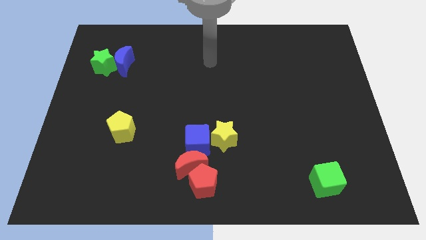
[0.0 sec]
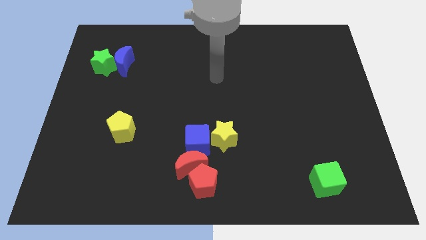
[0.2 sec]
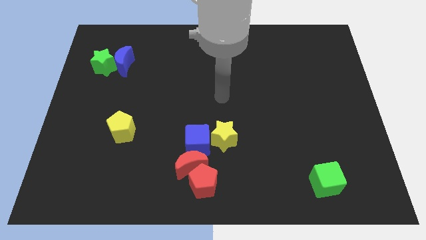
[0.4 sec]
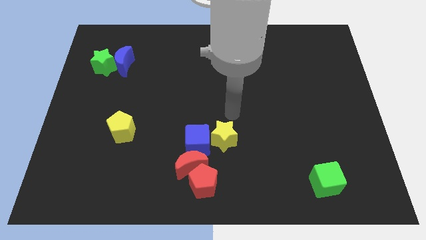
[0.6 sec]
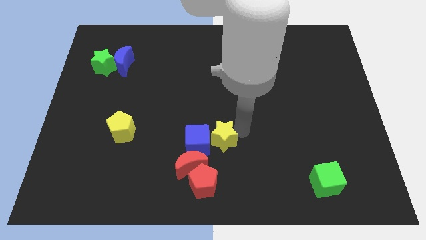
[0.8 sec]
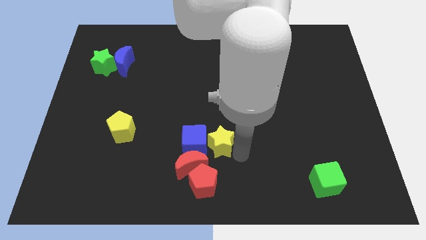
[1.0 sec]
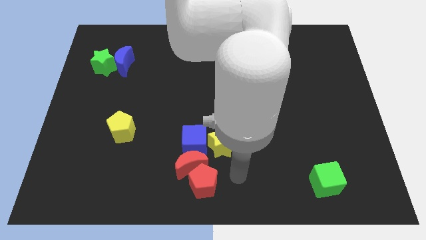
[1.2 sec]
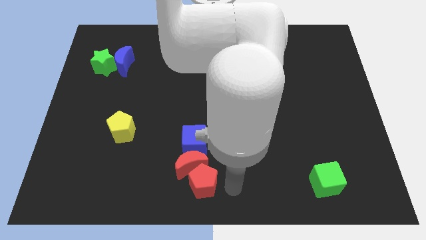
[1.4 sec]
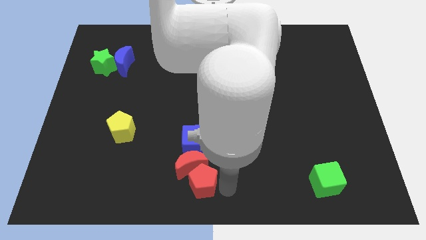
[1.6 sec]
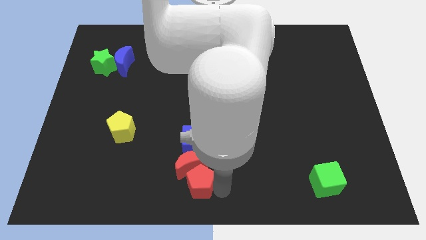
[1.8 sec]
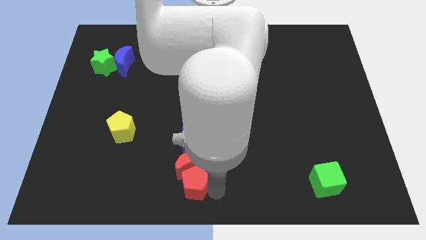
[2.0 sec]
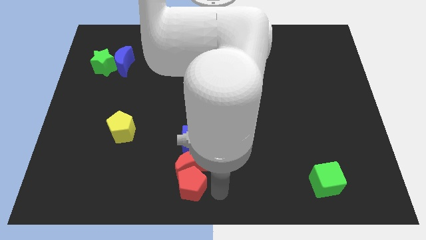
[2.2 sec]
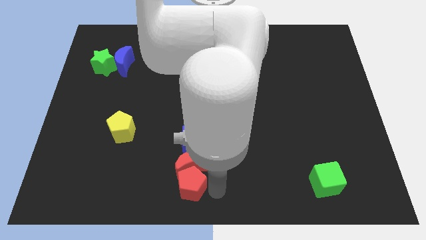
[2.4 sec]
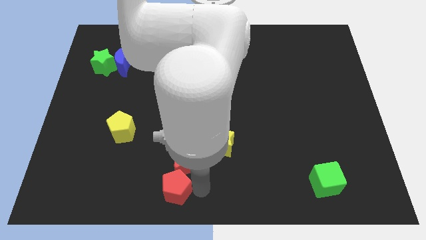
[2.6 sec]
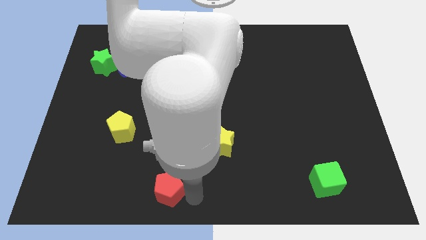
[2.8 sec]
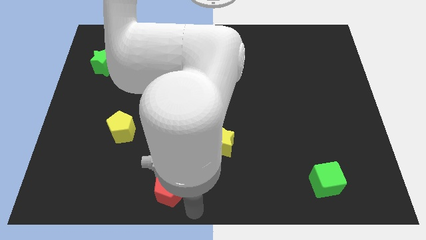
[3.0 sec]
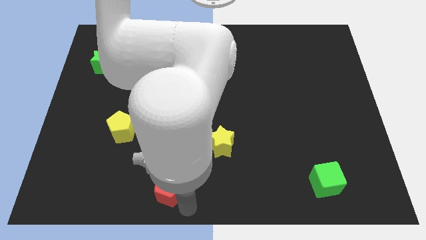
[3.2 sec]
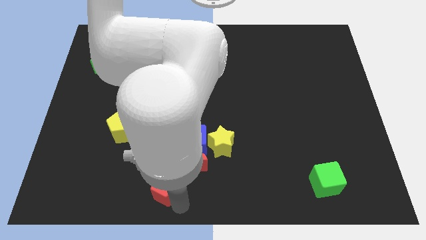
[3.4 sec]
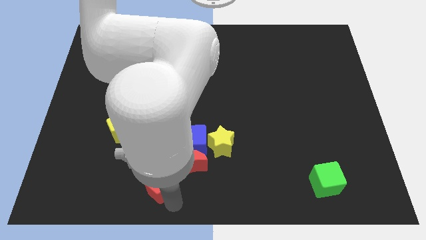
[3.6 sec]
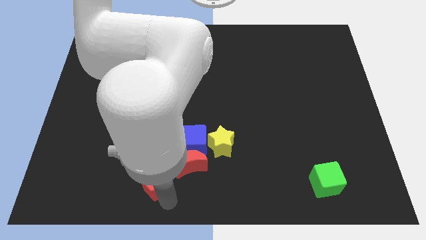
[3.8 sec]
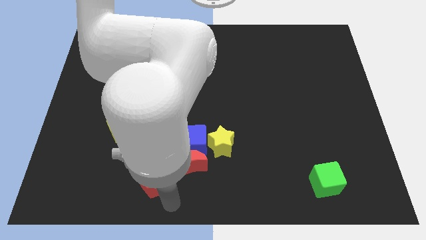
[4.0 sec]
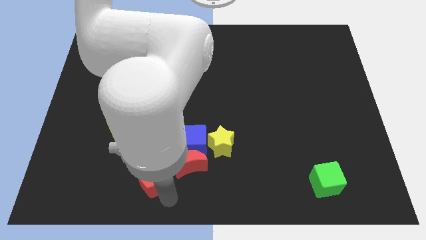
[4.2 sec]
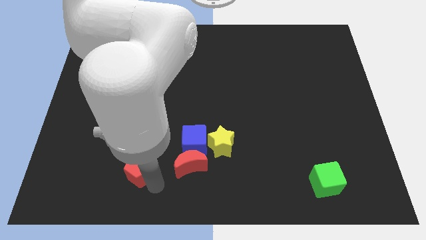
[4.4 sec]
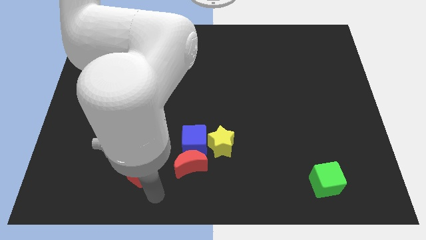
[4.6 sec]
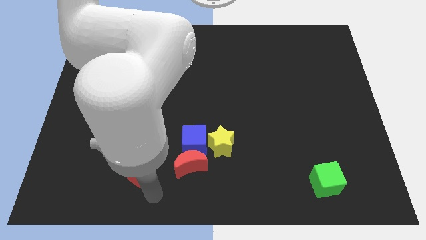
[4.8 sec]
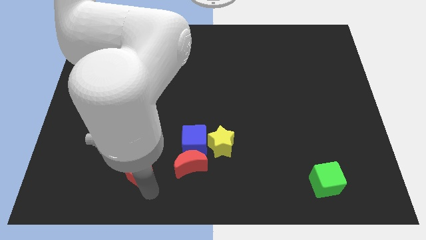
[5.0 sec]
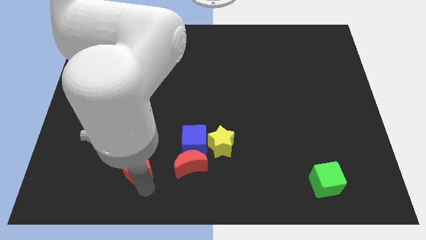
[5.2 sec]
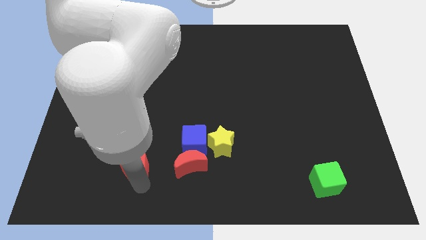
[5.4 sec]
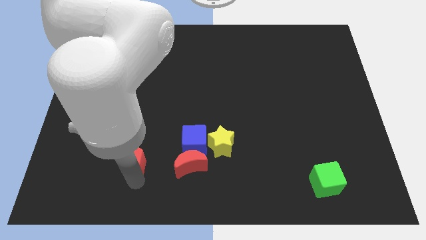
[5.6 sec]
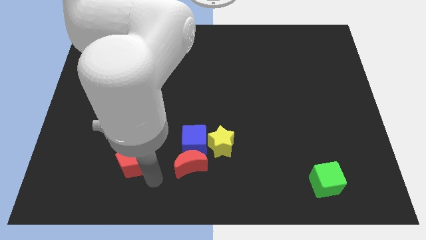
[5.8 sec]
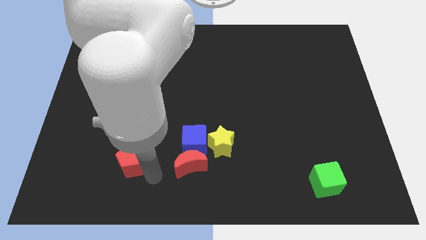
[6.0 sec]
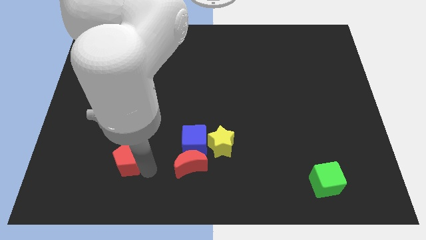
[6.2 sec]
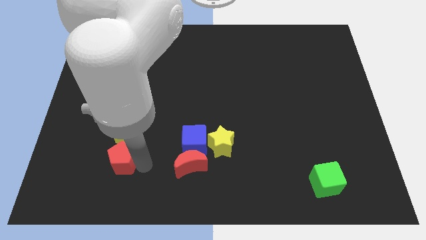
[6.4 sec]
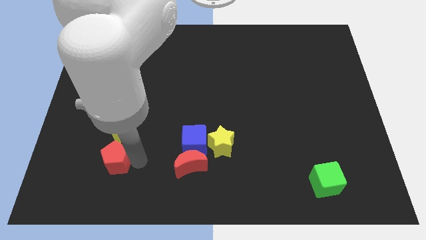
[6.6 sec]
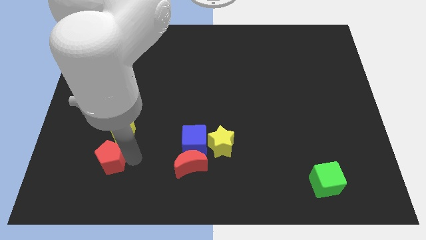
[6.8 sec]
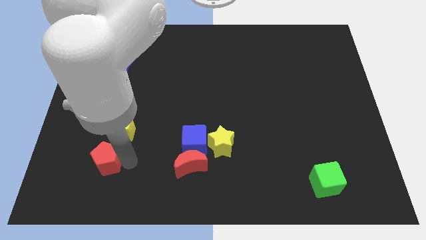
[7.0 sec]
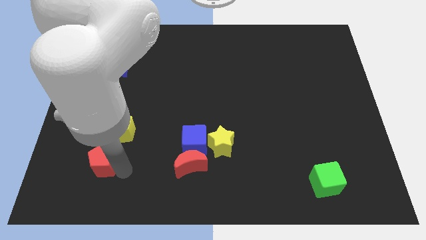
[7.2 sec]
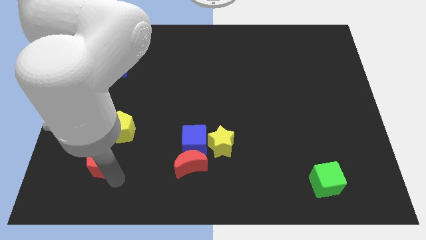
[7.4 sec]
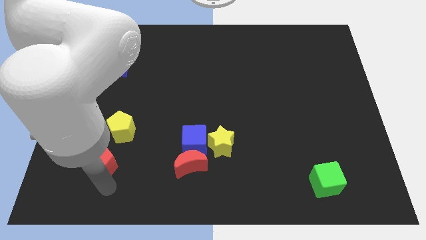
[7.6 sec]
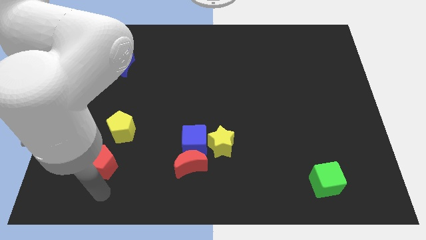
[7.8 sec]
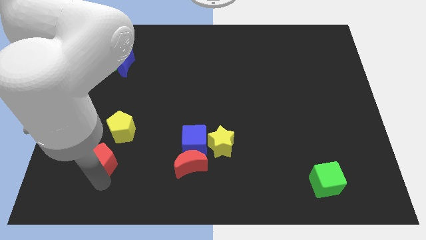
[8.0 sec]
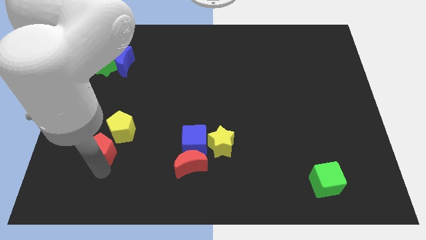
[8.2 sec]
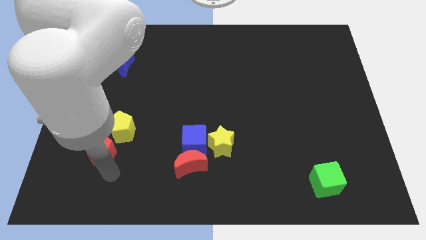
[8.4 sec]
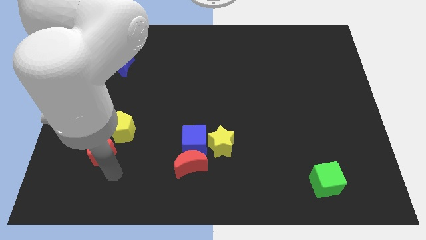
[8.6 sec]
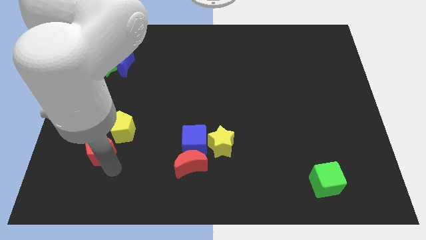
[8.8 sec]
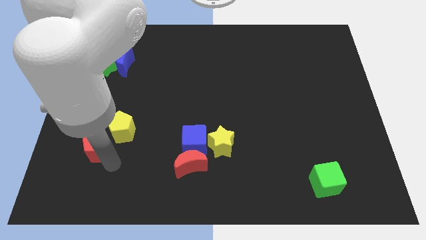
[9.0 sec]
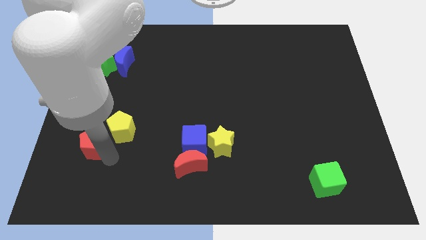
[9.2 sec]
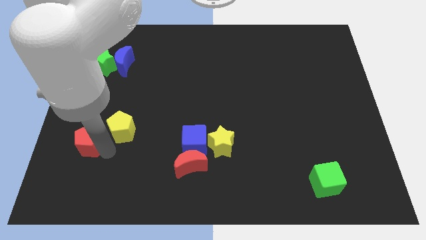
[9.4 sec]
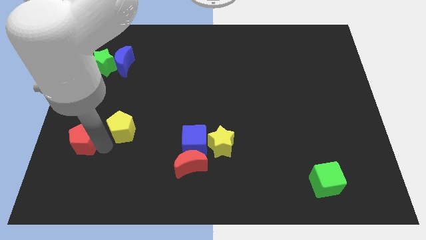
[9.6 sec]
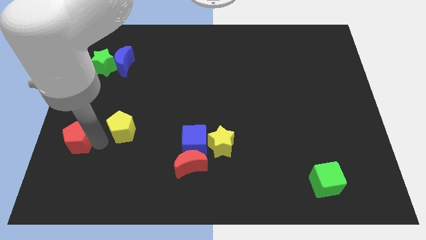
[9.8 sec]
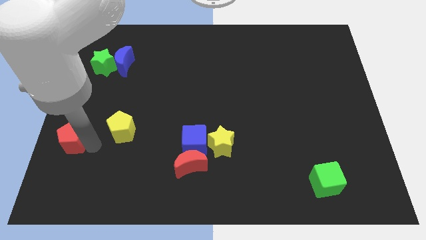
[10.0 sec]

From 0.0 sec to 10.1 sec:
slide the red pentagon to the center left

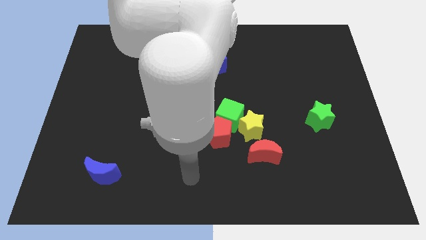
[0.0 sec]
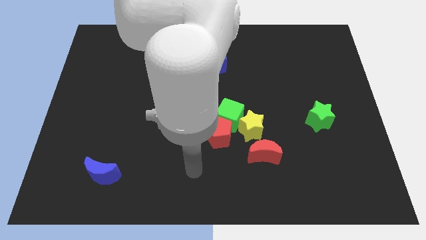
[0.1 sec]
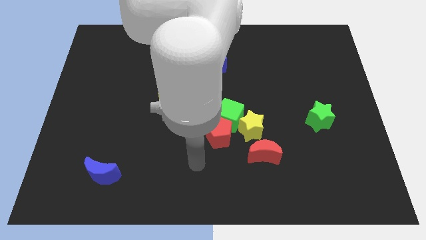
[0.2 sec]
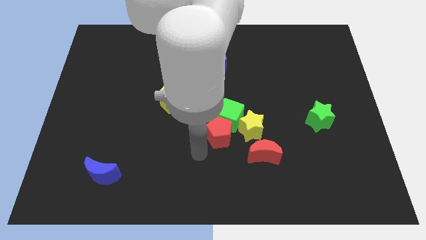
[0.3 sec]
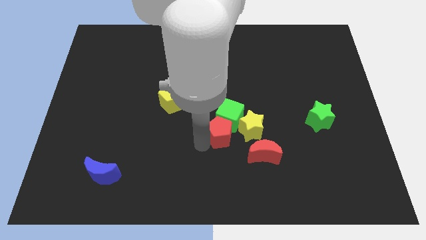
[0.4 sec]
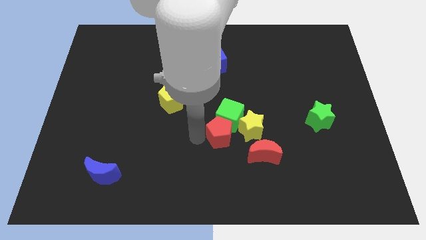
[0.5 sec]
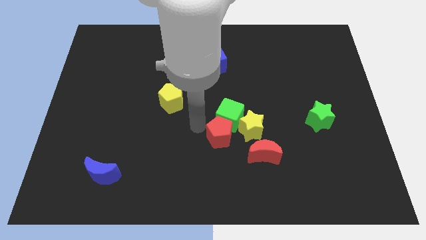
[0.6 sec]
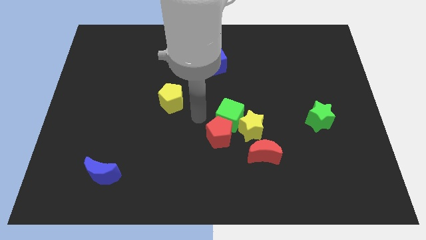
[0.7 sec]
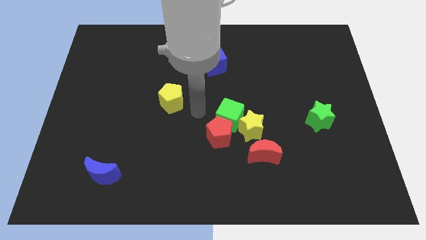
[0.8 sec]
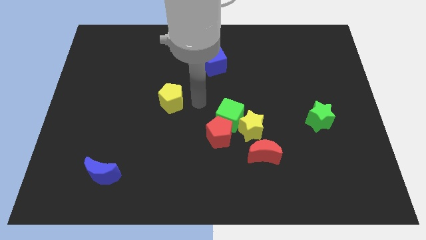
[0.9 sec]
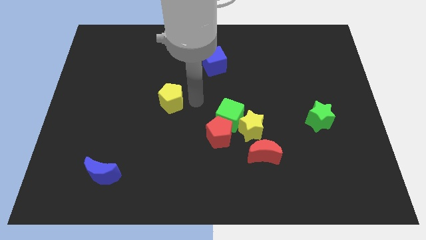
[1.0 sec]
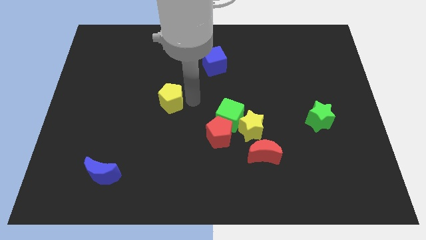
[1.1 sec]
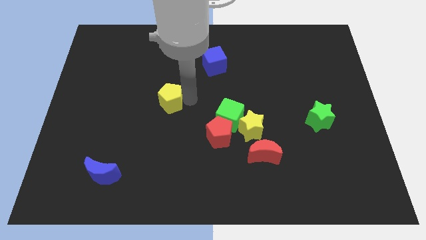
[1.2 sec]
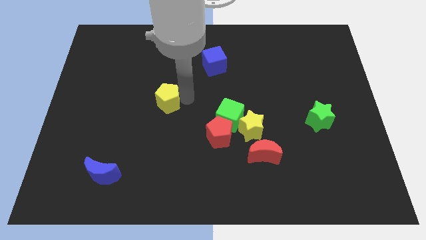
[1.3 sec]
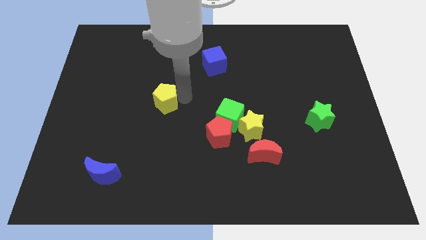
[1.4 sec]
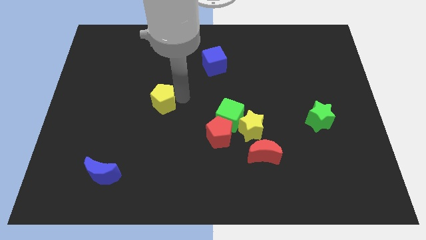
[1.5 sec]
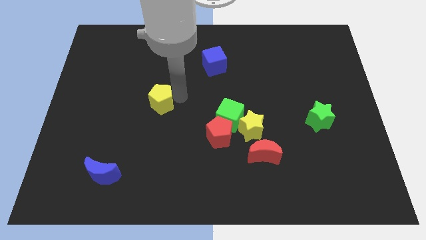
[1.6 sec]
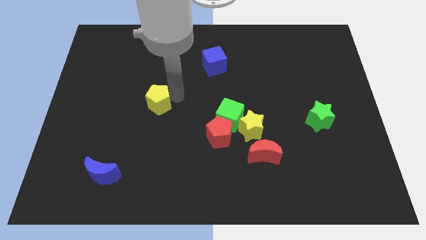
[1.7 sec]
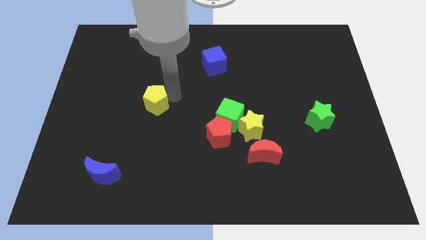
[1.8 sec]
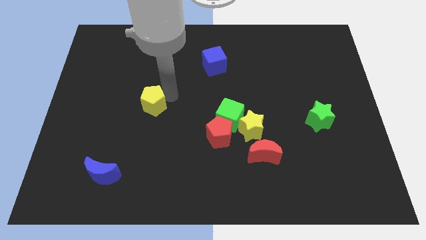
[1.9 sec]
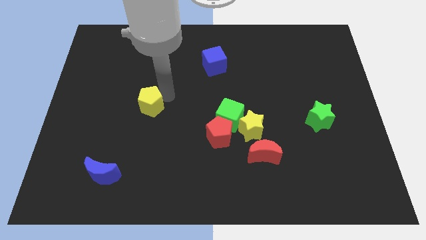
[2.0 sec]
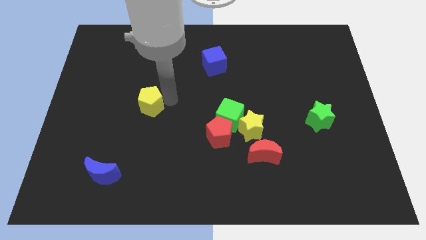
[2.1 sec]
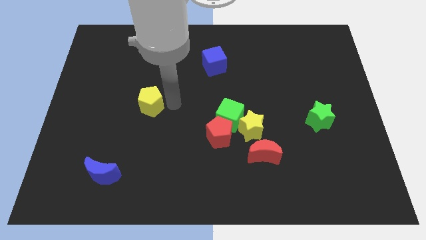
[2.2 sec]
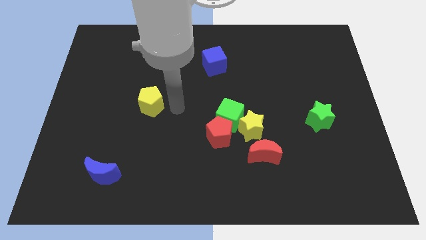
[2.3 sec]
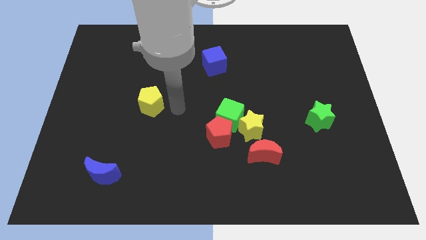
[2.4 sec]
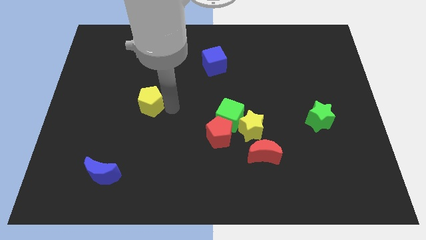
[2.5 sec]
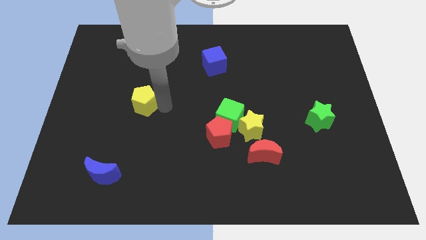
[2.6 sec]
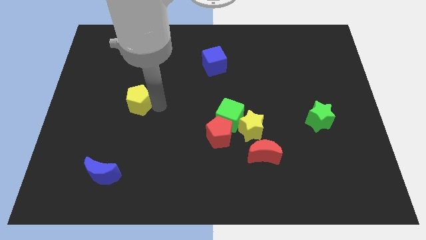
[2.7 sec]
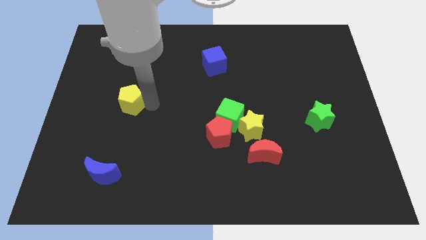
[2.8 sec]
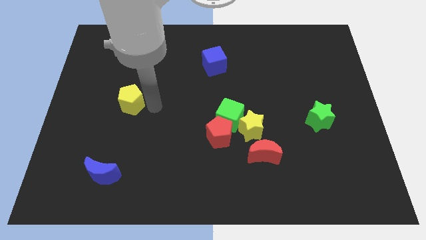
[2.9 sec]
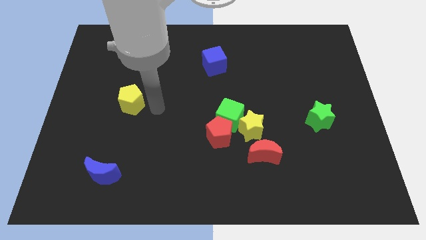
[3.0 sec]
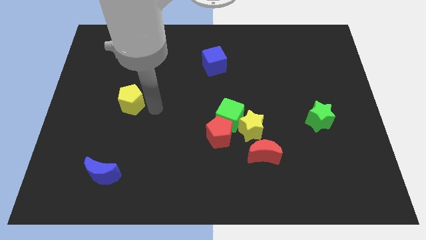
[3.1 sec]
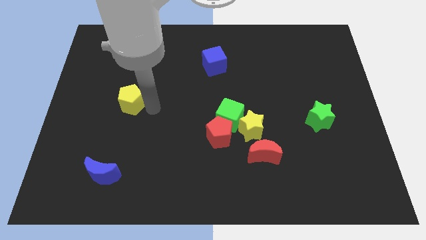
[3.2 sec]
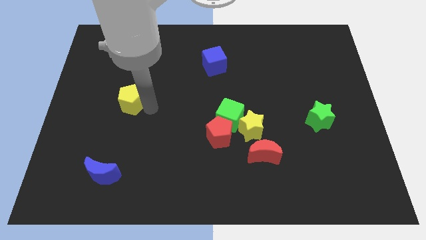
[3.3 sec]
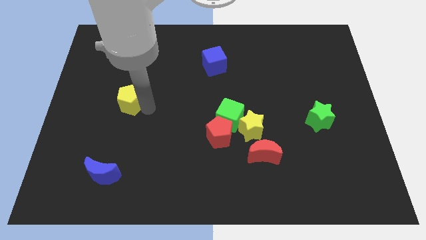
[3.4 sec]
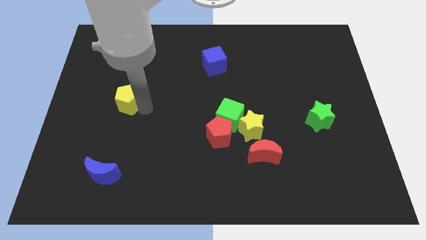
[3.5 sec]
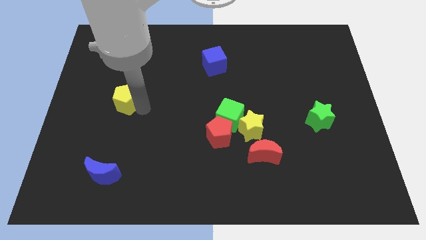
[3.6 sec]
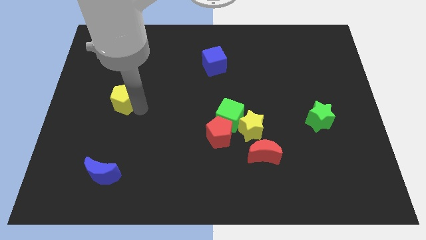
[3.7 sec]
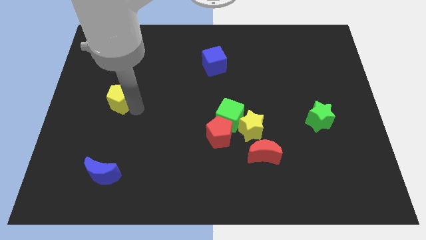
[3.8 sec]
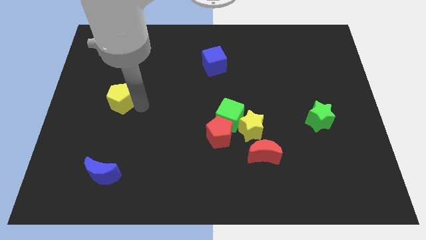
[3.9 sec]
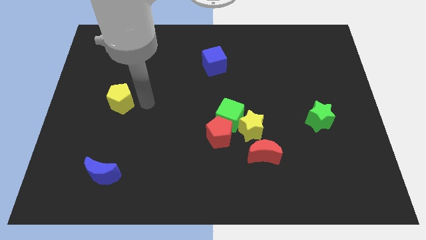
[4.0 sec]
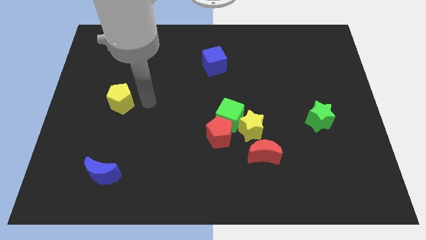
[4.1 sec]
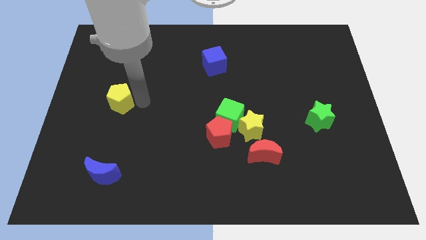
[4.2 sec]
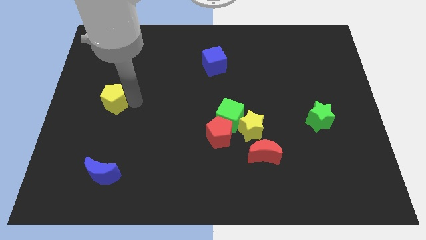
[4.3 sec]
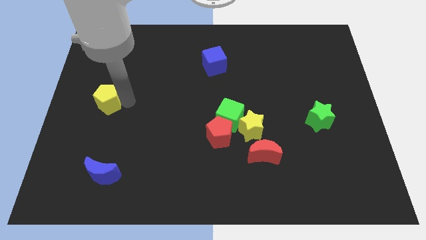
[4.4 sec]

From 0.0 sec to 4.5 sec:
slide the yellow pentagon to the left side of the board
